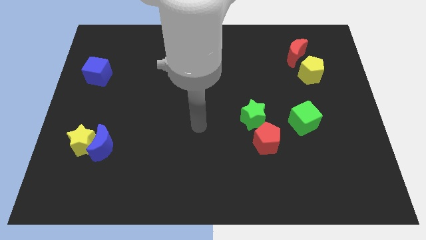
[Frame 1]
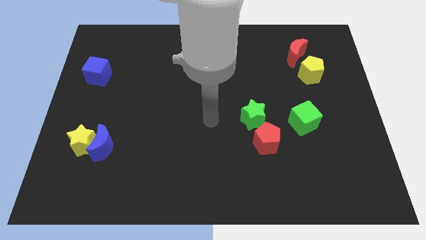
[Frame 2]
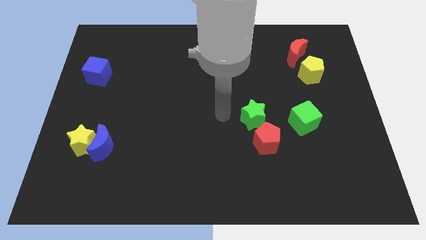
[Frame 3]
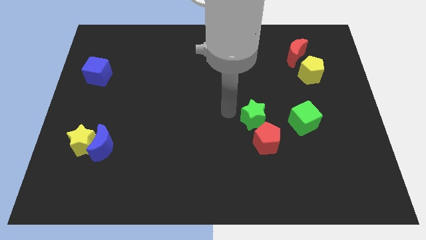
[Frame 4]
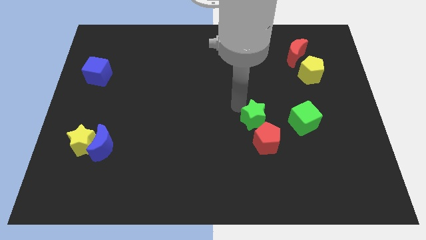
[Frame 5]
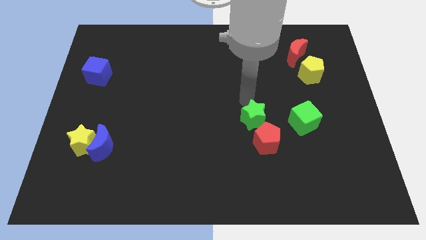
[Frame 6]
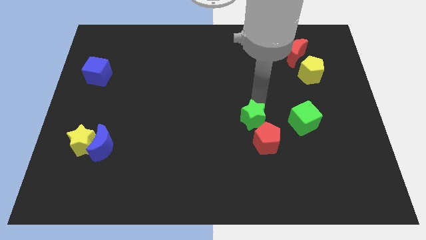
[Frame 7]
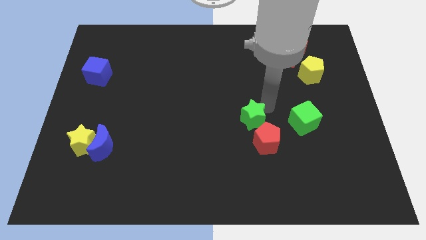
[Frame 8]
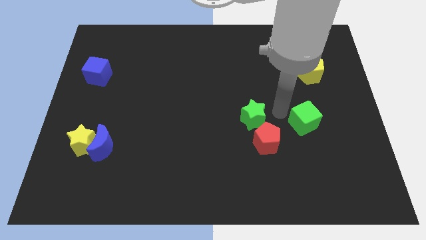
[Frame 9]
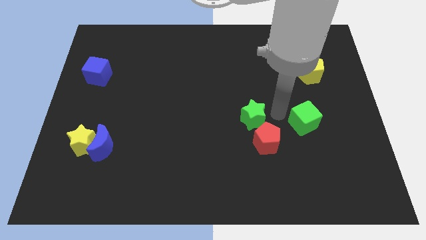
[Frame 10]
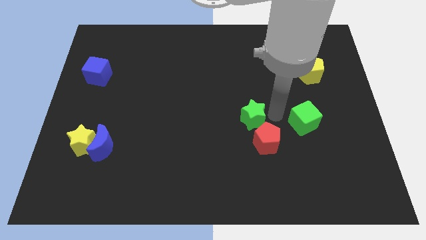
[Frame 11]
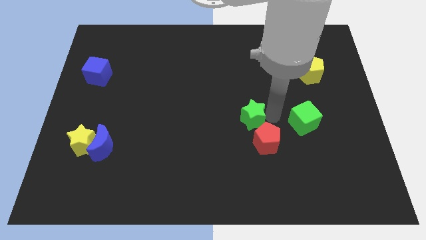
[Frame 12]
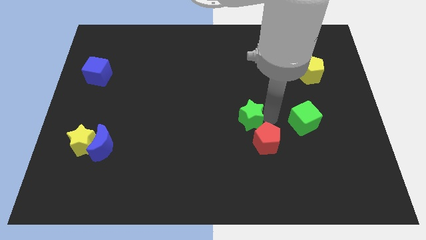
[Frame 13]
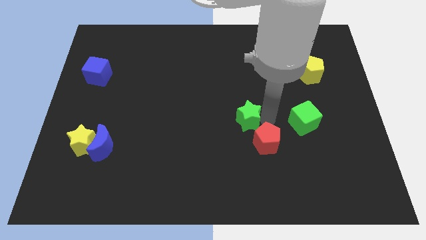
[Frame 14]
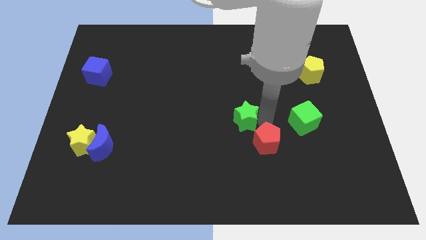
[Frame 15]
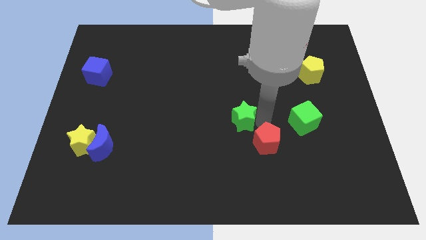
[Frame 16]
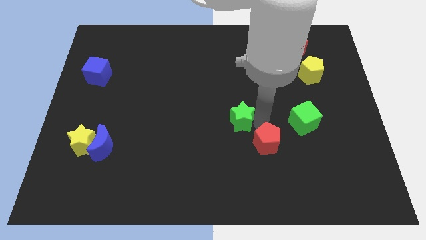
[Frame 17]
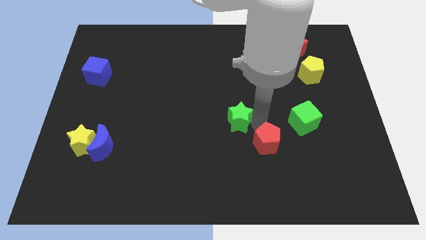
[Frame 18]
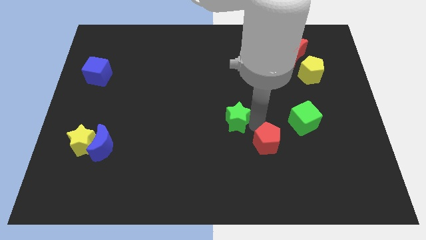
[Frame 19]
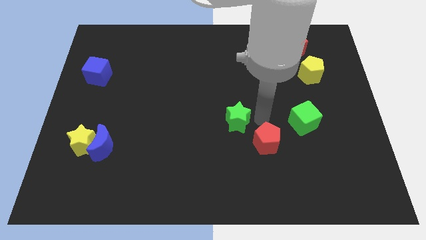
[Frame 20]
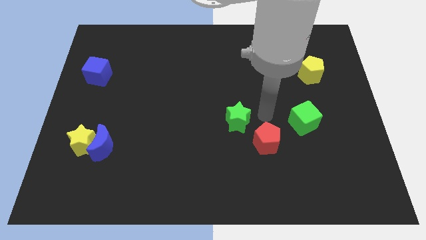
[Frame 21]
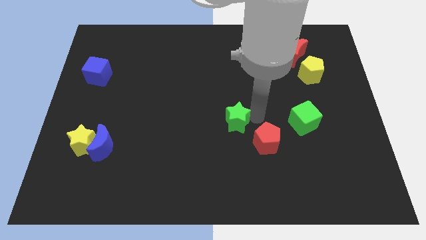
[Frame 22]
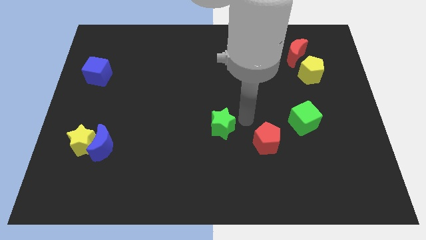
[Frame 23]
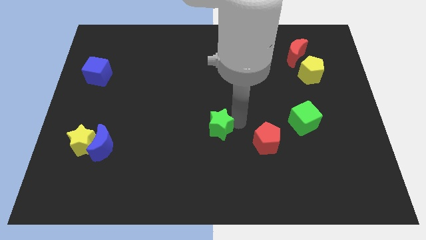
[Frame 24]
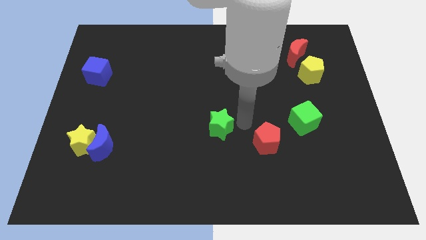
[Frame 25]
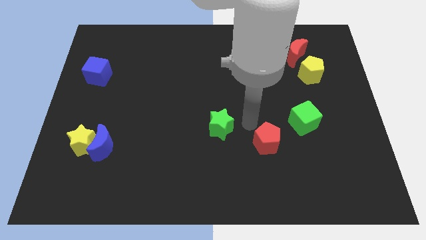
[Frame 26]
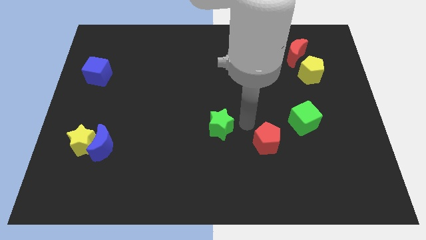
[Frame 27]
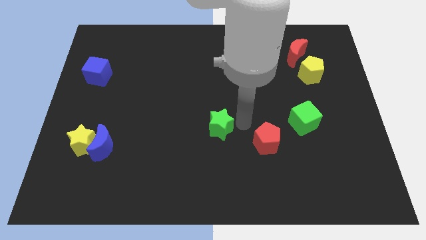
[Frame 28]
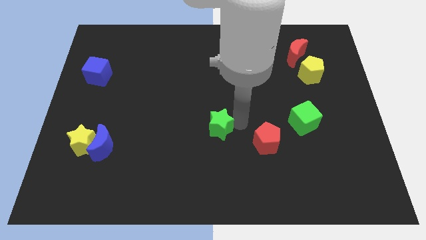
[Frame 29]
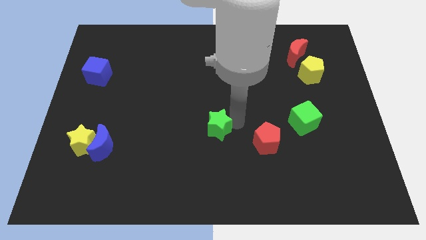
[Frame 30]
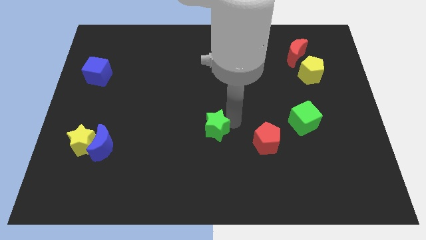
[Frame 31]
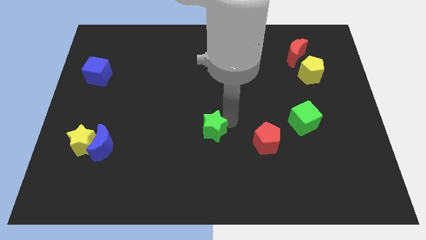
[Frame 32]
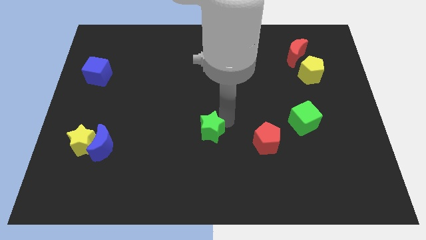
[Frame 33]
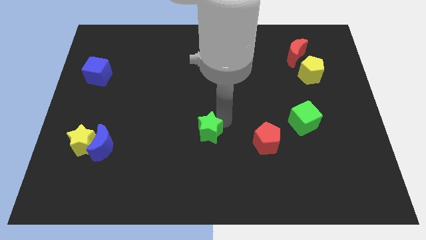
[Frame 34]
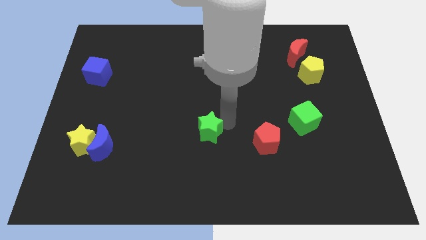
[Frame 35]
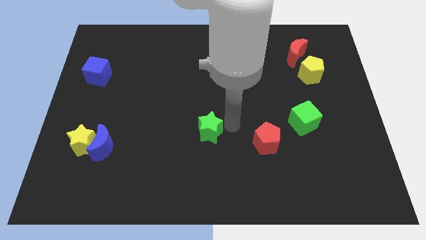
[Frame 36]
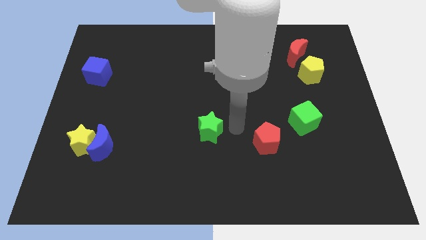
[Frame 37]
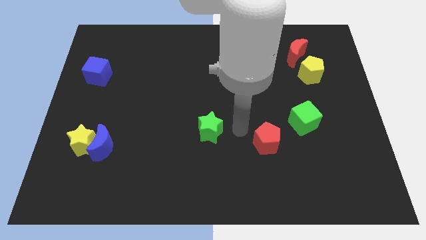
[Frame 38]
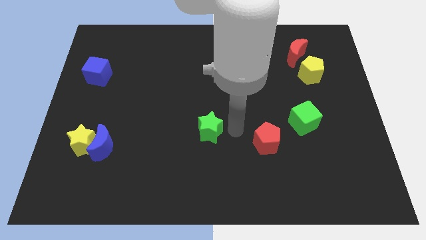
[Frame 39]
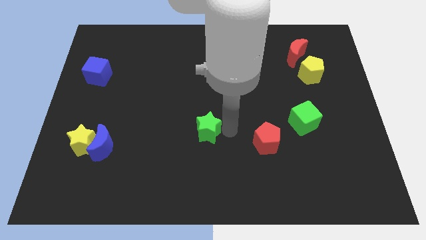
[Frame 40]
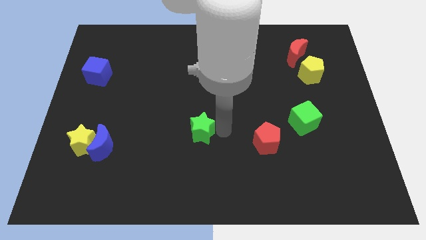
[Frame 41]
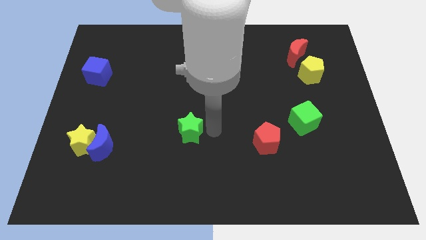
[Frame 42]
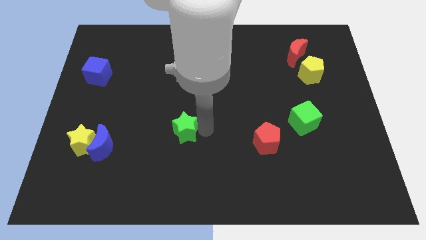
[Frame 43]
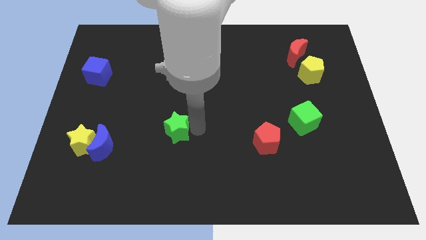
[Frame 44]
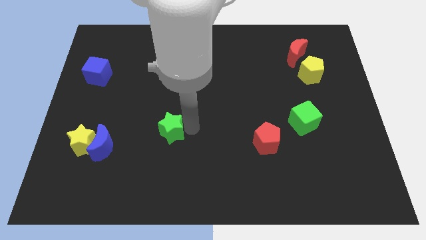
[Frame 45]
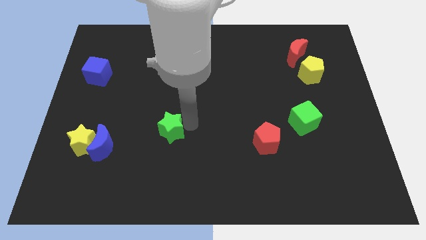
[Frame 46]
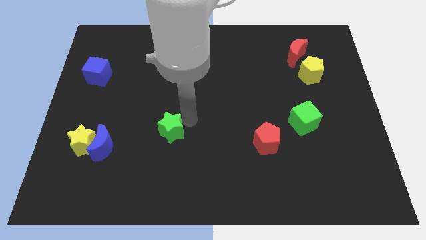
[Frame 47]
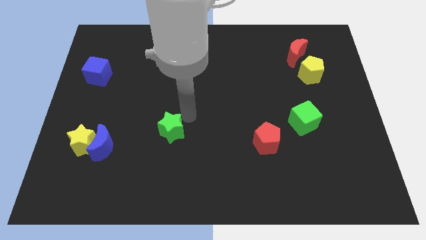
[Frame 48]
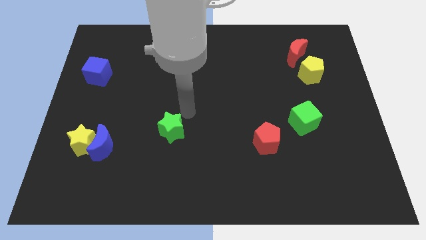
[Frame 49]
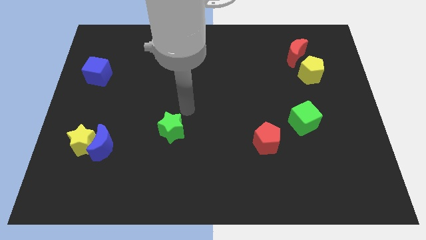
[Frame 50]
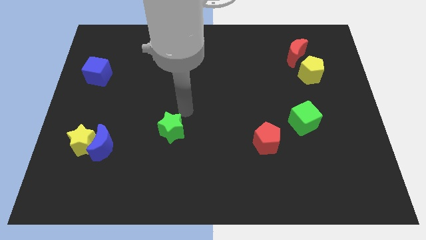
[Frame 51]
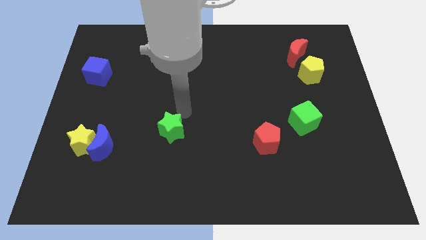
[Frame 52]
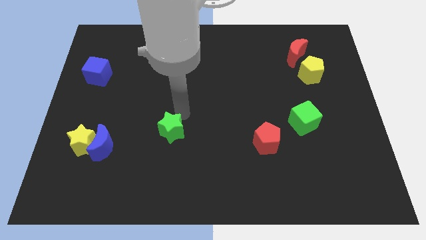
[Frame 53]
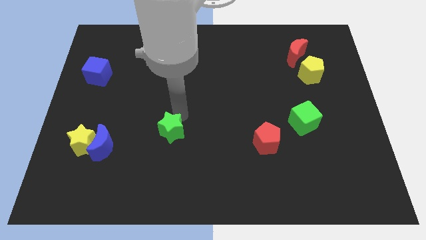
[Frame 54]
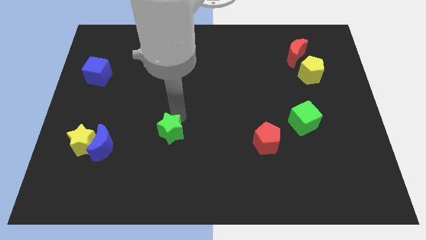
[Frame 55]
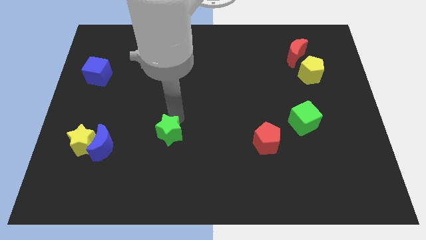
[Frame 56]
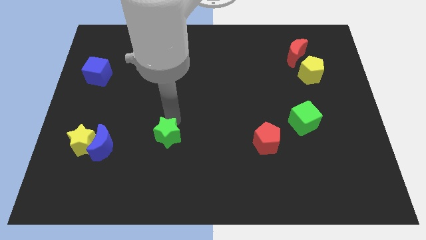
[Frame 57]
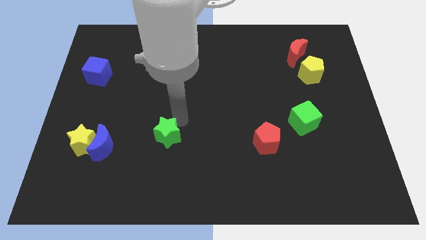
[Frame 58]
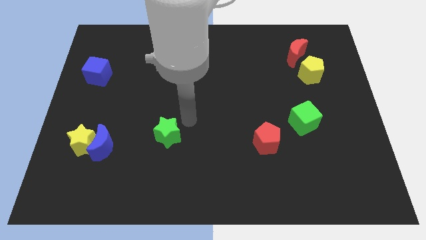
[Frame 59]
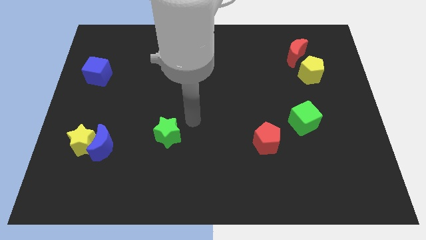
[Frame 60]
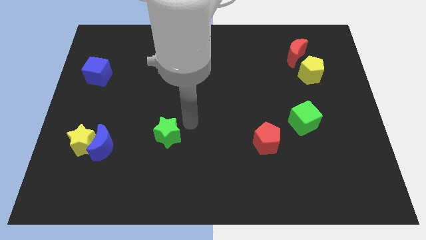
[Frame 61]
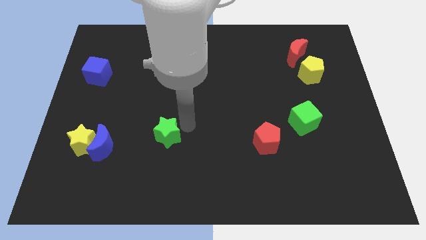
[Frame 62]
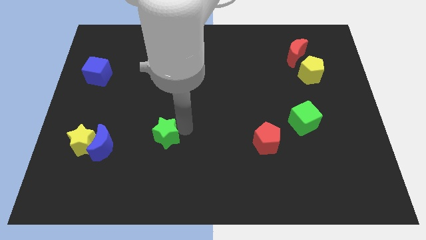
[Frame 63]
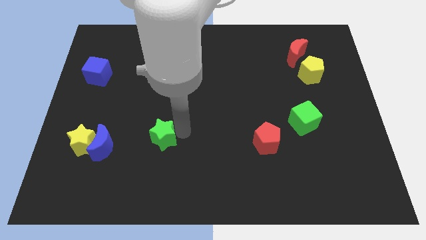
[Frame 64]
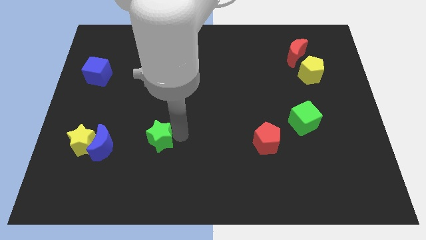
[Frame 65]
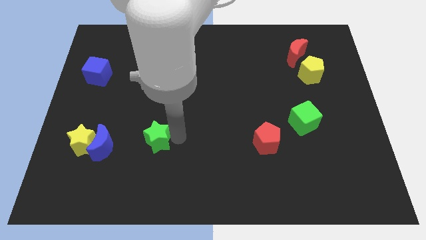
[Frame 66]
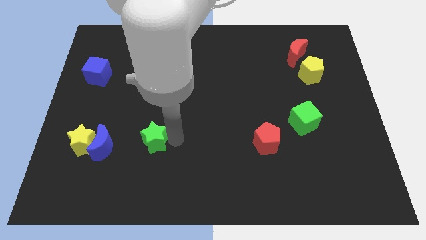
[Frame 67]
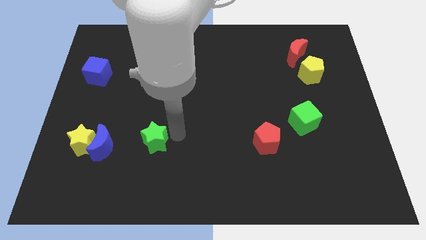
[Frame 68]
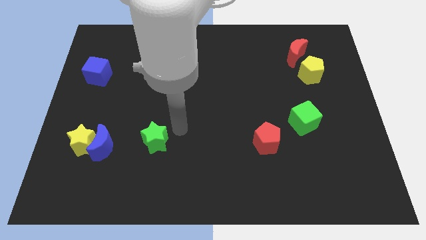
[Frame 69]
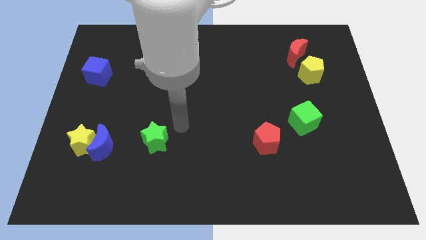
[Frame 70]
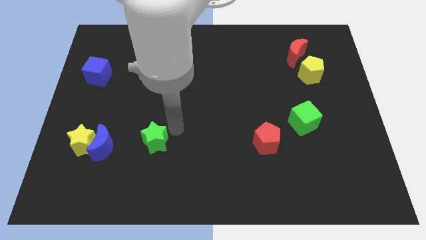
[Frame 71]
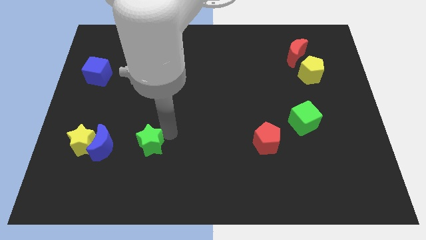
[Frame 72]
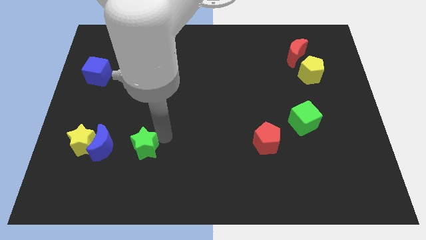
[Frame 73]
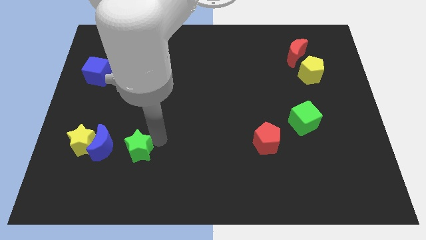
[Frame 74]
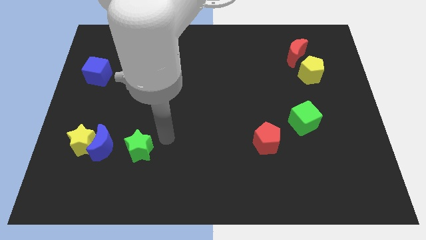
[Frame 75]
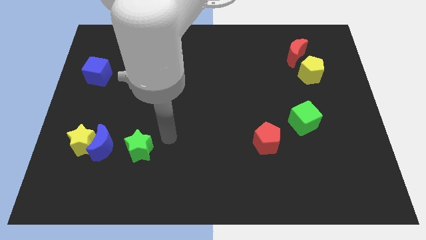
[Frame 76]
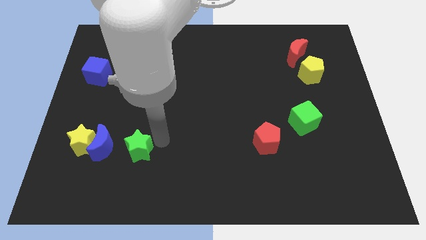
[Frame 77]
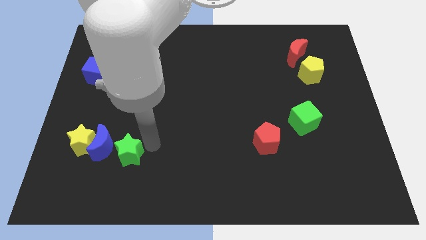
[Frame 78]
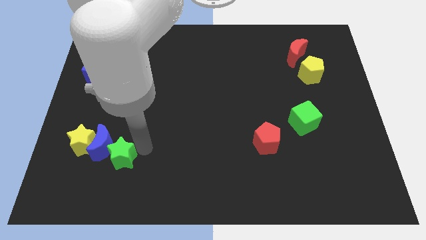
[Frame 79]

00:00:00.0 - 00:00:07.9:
move the green star to the bottom right side of the yellow star
